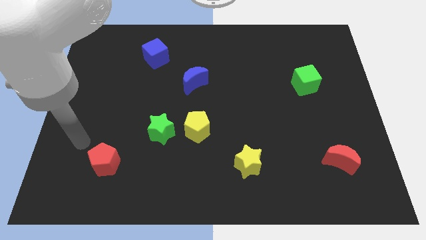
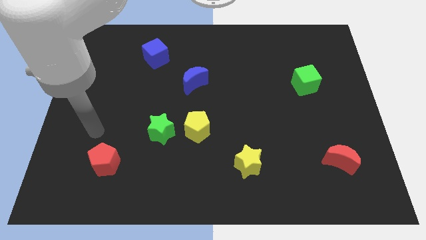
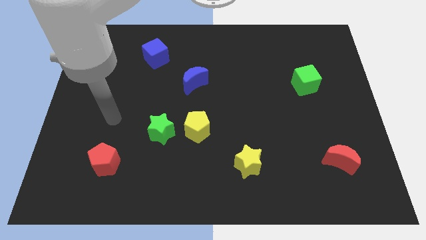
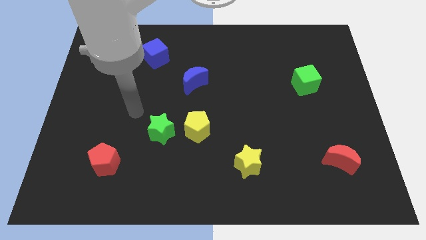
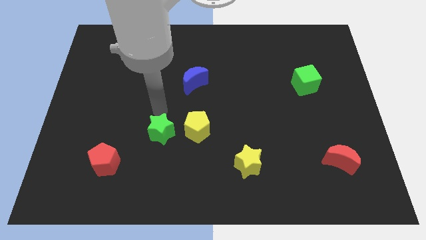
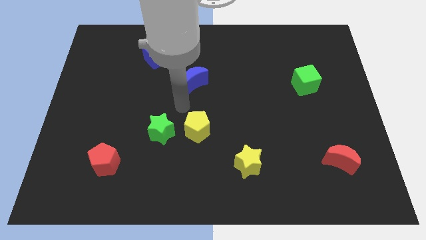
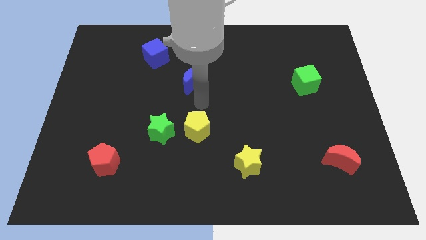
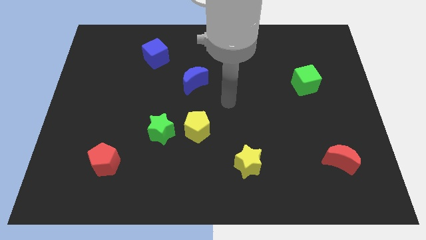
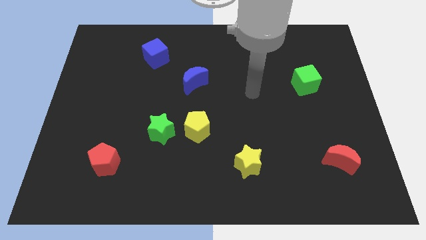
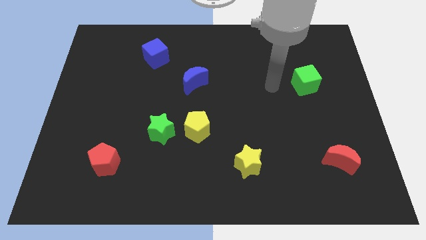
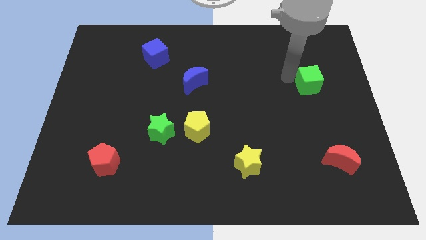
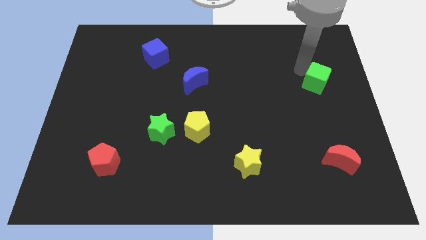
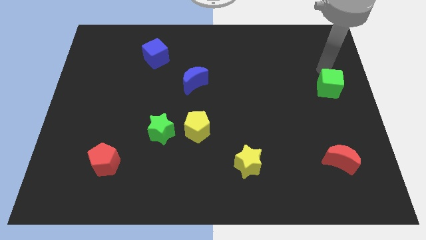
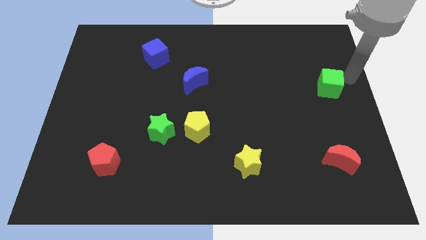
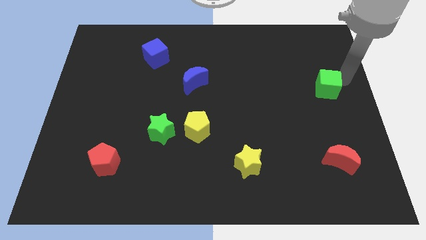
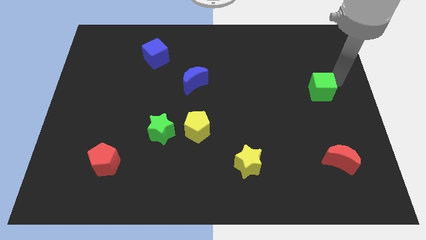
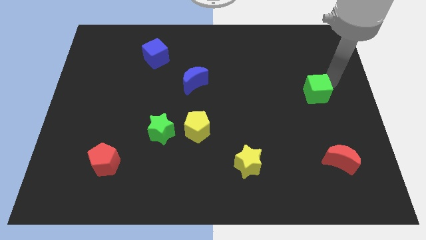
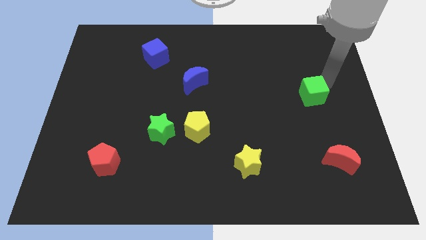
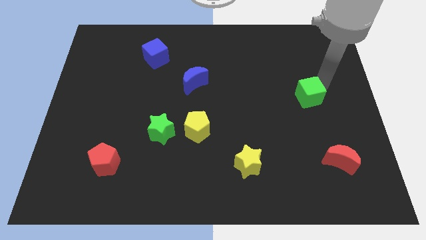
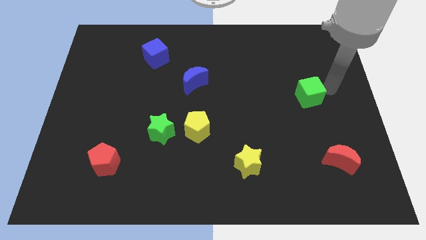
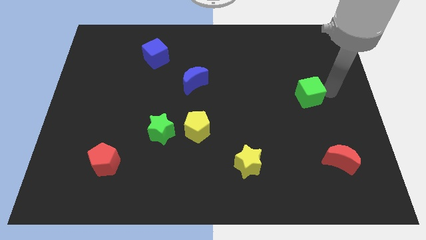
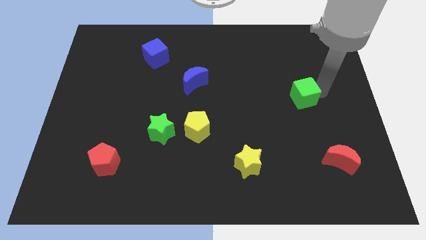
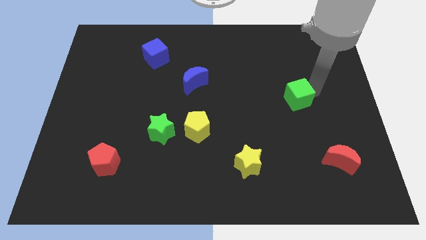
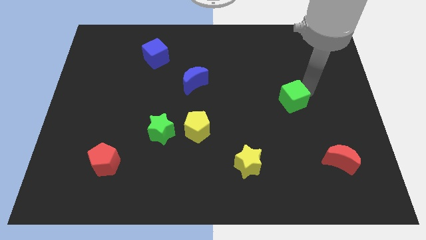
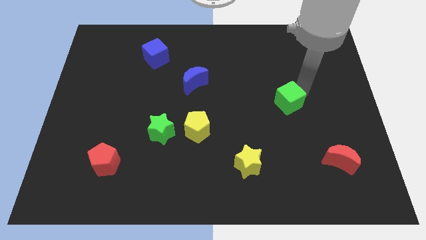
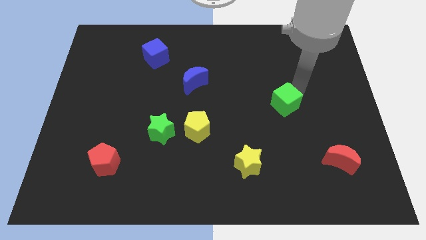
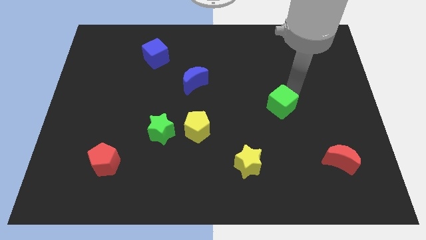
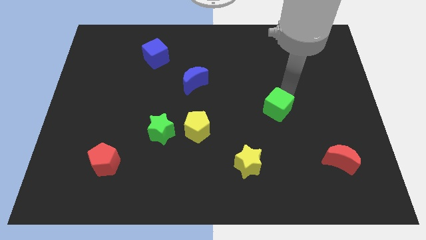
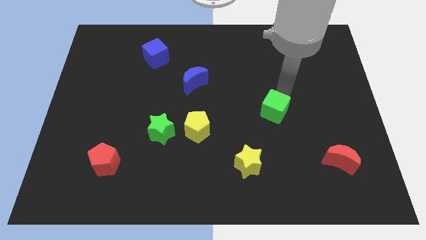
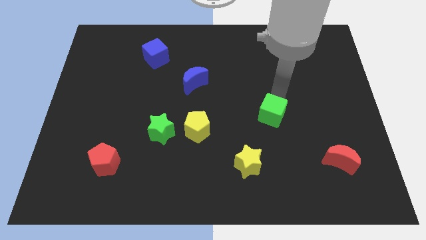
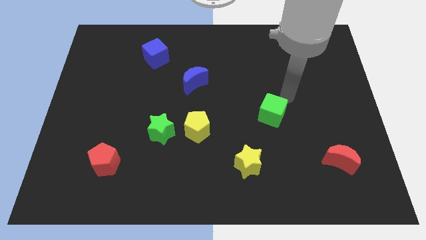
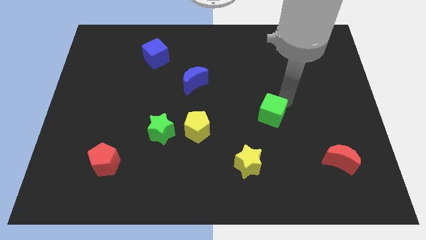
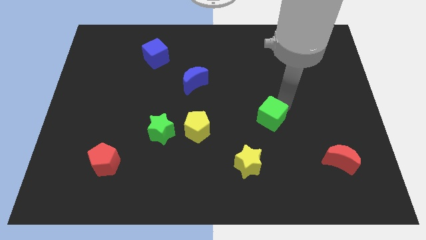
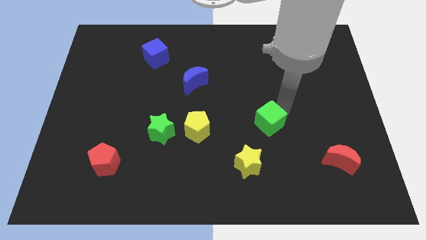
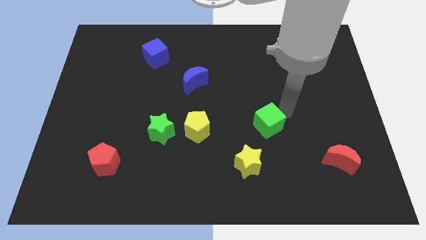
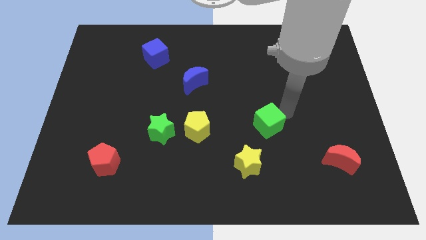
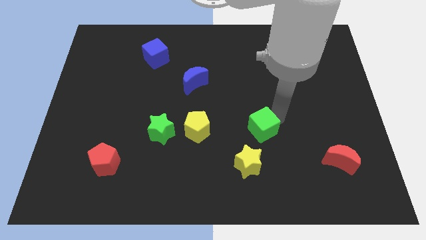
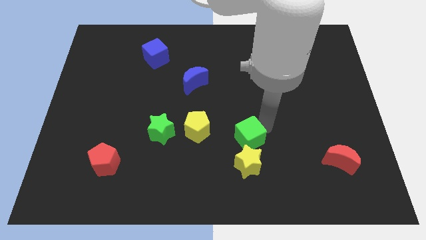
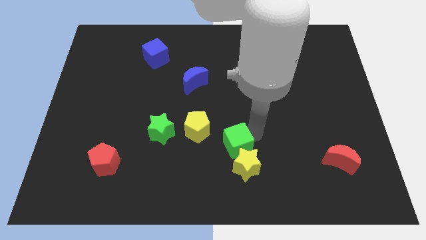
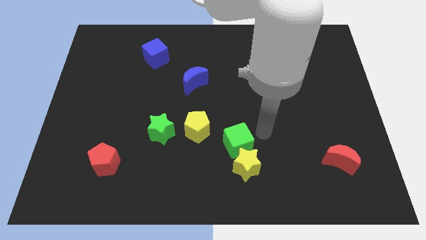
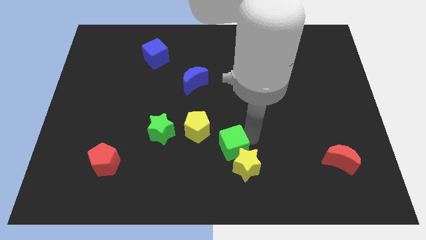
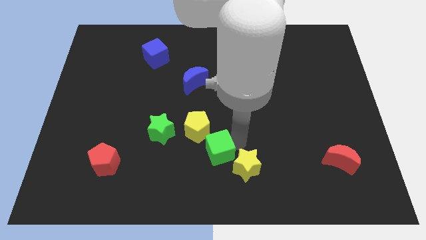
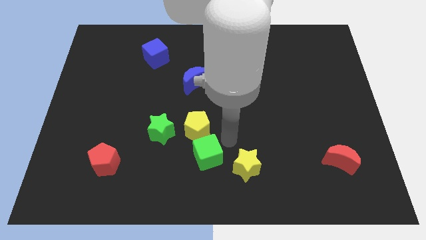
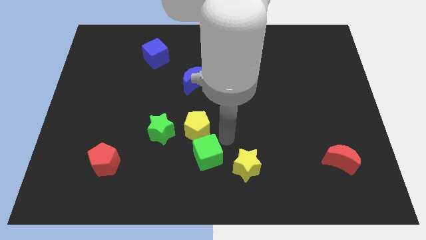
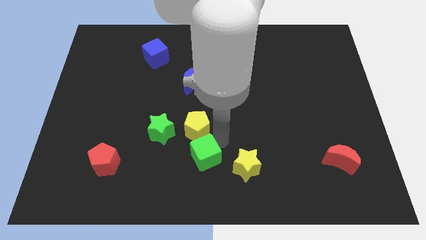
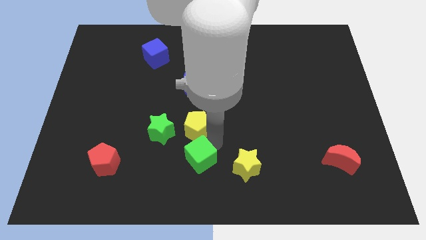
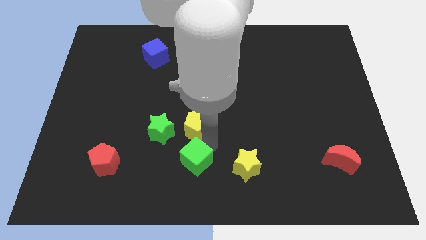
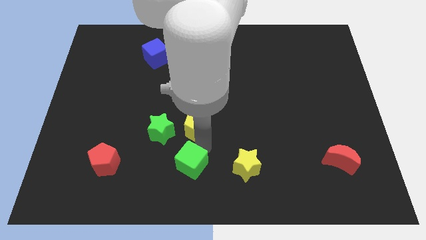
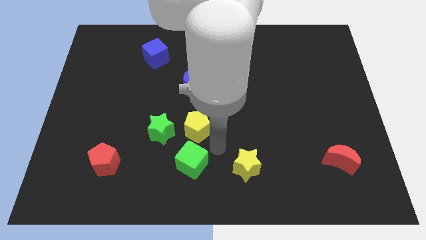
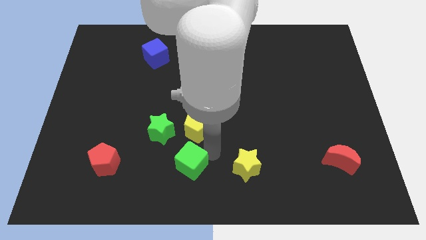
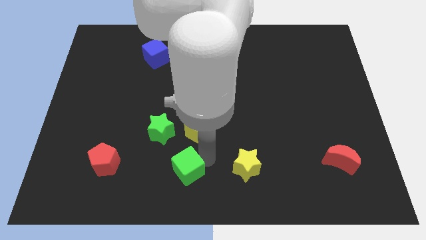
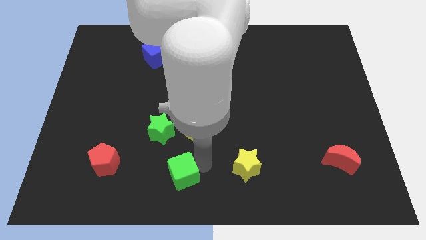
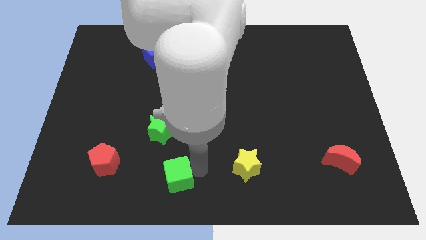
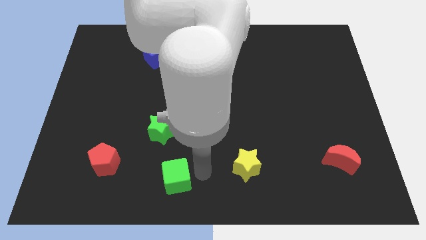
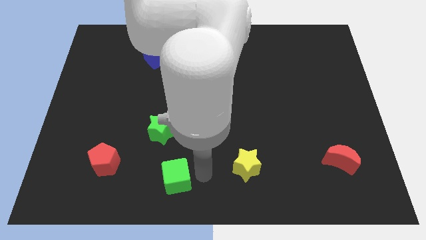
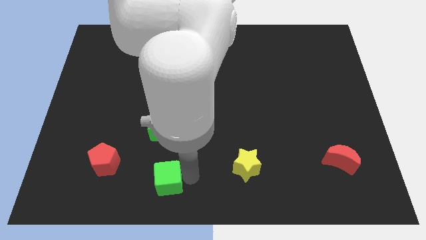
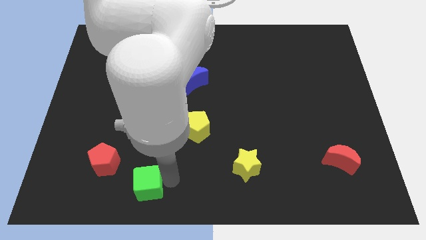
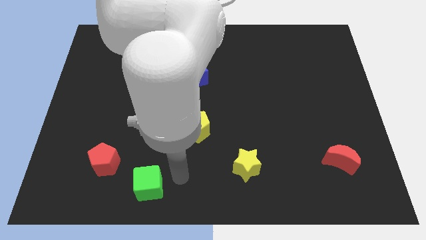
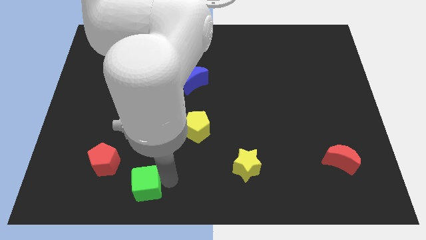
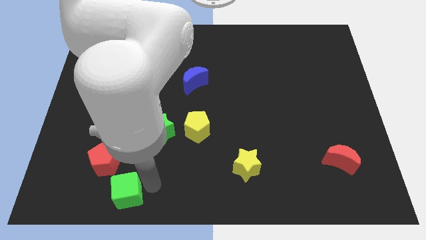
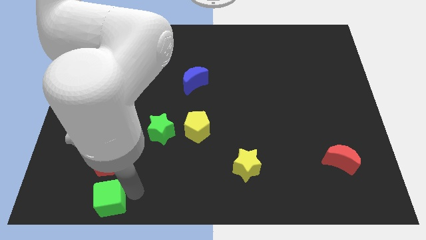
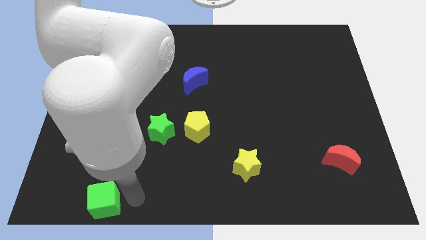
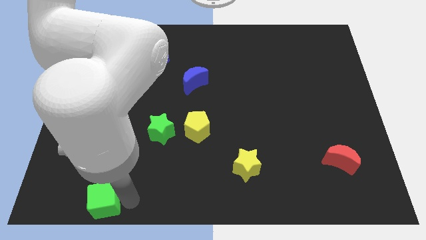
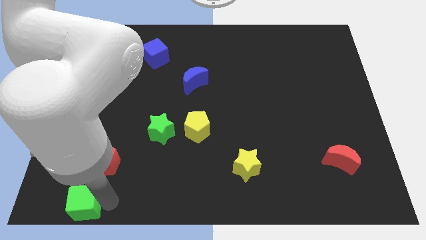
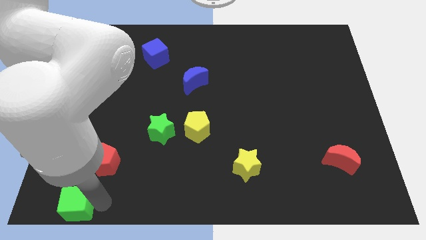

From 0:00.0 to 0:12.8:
move the green cube to the bottom left
